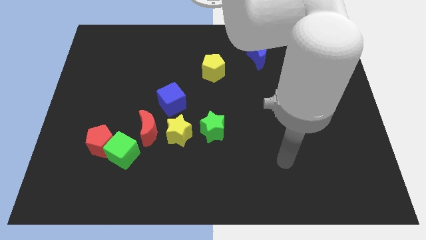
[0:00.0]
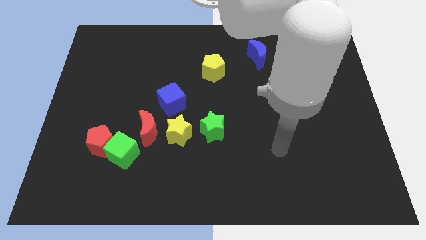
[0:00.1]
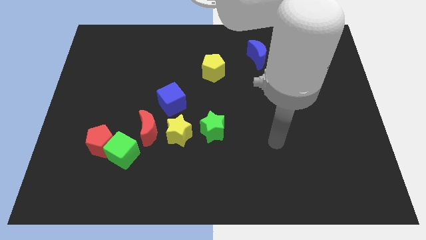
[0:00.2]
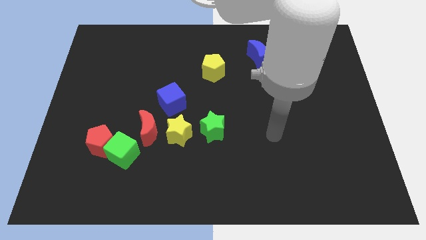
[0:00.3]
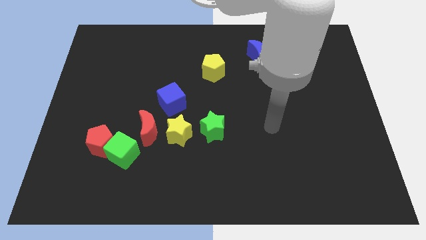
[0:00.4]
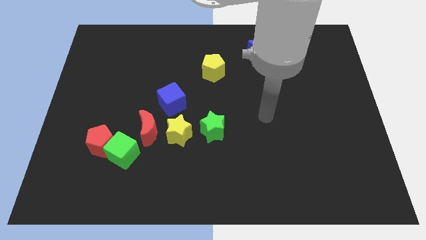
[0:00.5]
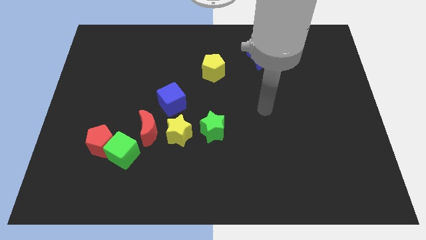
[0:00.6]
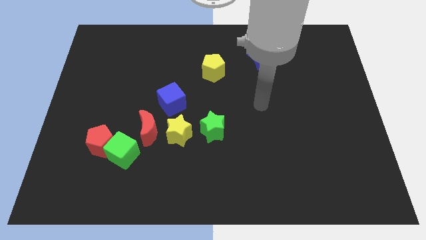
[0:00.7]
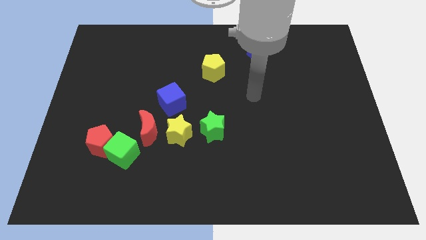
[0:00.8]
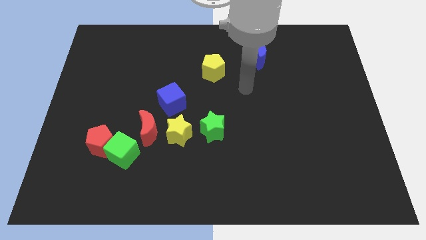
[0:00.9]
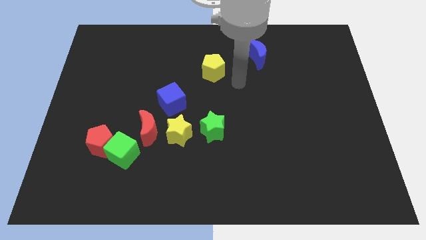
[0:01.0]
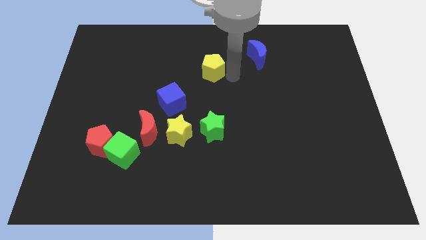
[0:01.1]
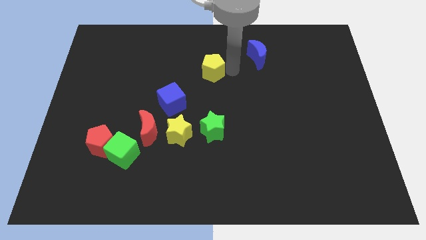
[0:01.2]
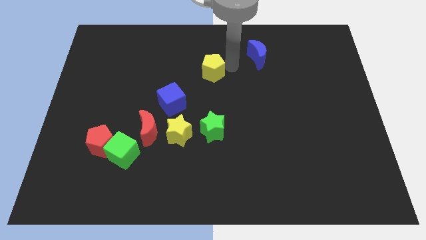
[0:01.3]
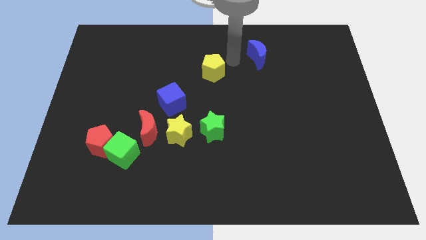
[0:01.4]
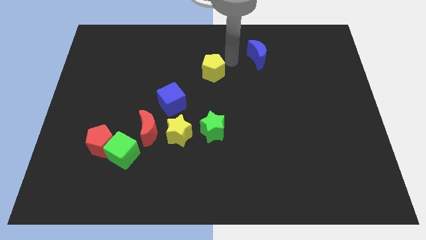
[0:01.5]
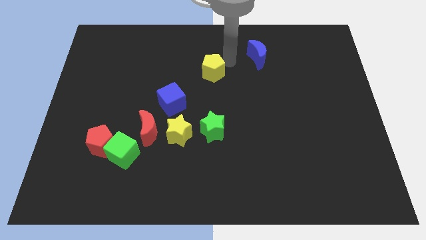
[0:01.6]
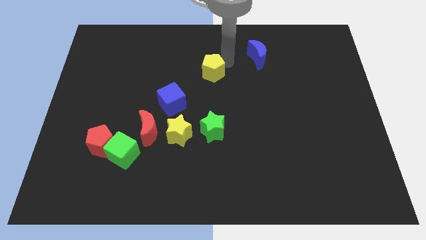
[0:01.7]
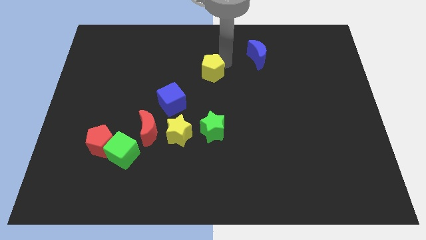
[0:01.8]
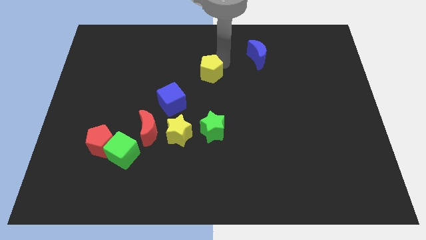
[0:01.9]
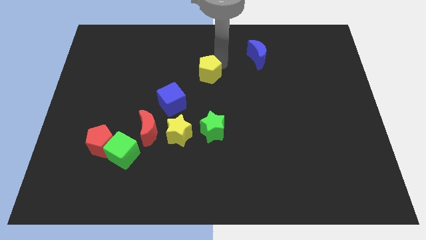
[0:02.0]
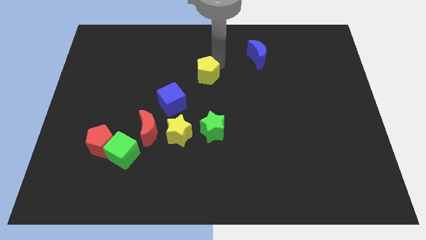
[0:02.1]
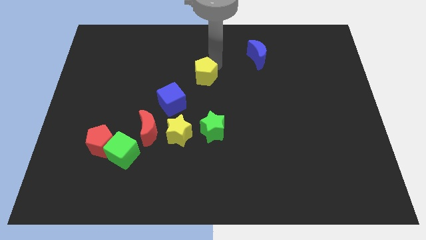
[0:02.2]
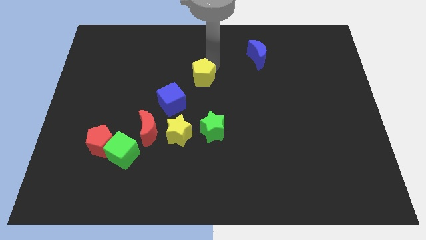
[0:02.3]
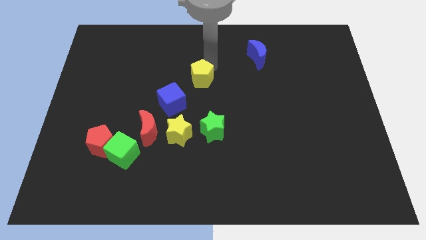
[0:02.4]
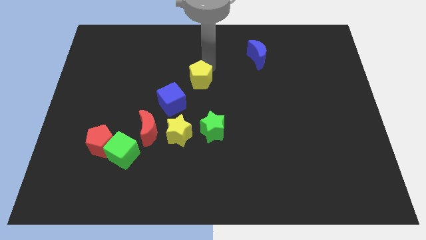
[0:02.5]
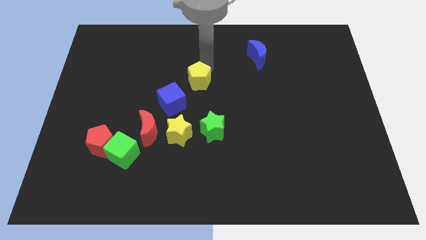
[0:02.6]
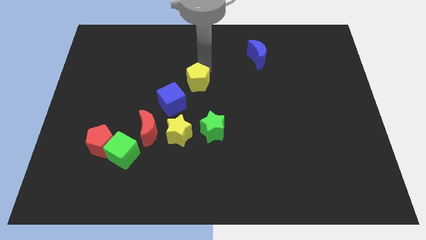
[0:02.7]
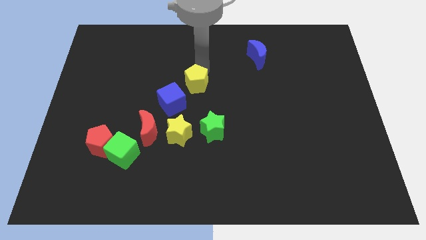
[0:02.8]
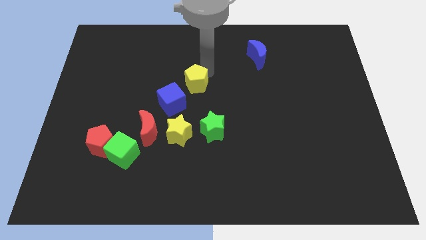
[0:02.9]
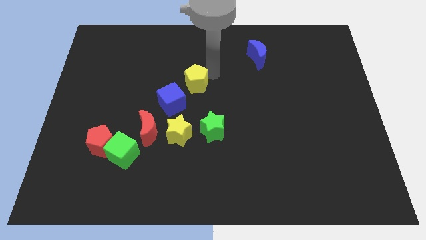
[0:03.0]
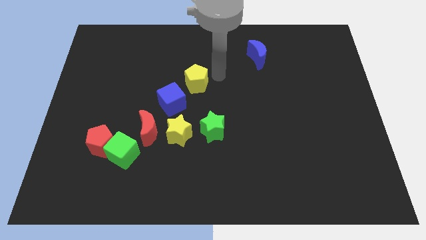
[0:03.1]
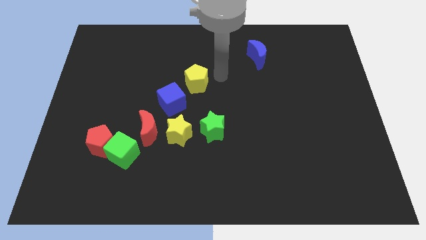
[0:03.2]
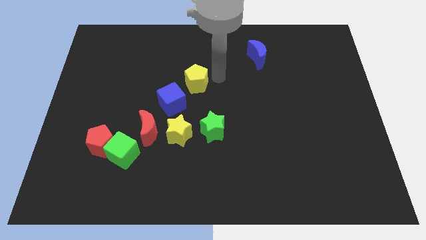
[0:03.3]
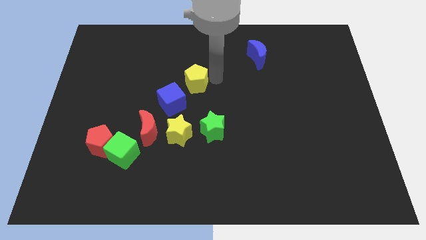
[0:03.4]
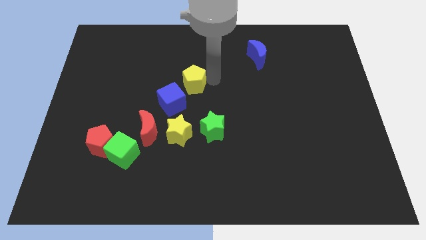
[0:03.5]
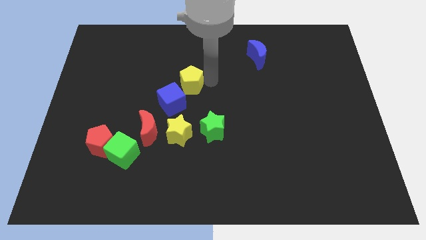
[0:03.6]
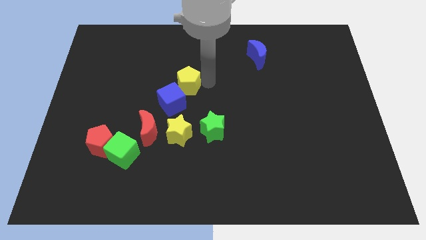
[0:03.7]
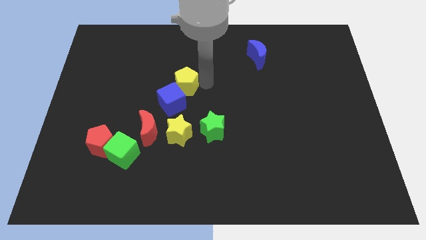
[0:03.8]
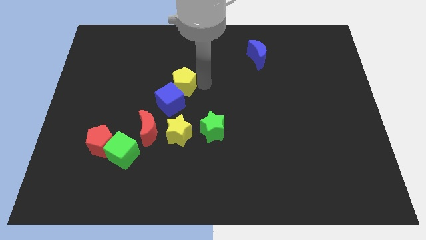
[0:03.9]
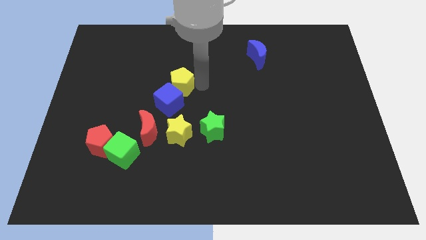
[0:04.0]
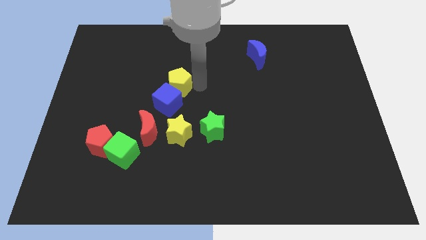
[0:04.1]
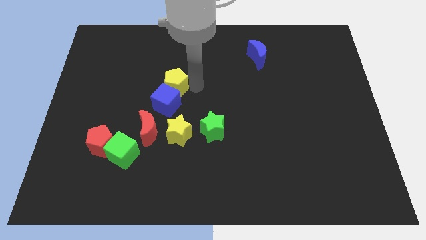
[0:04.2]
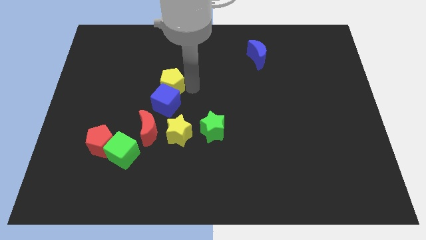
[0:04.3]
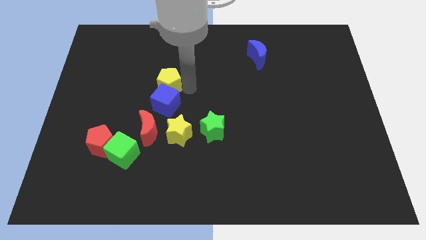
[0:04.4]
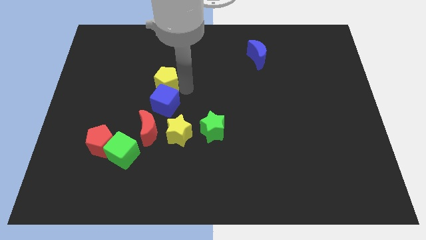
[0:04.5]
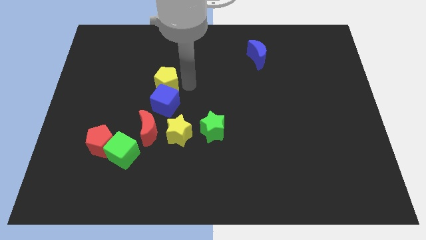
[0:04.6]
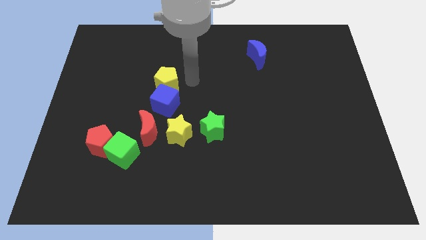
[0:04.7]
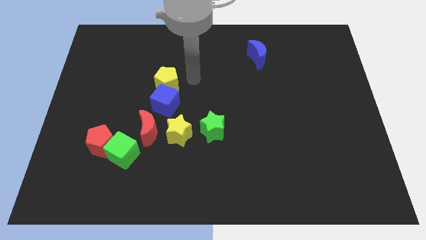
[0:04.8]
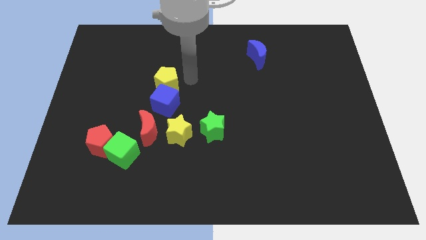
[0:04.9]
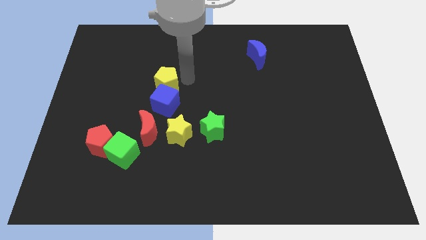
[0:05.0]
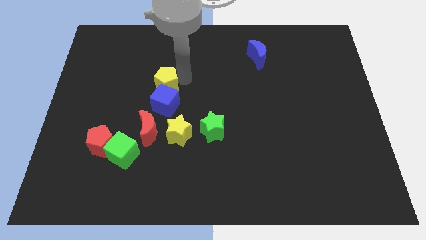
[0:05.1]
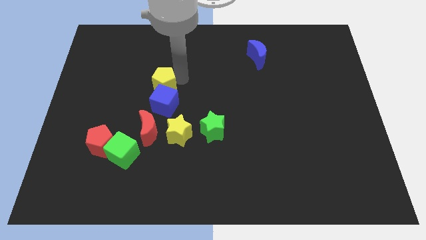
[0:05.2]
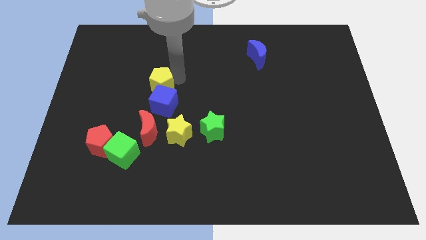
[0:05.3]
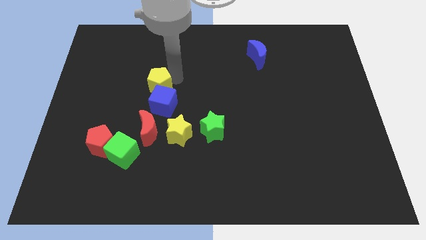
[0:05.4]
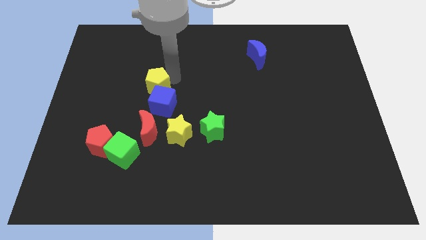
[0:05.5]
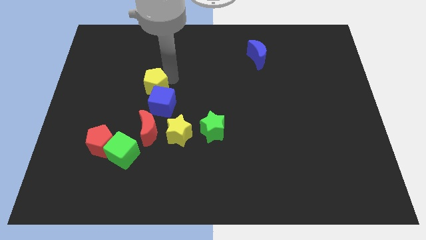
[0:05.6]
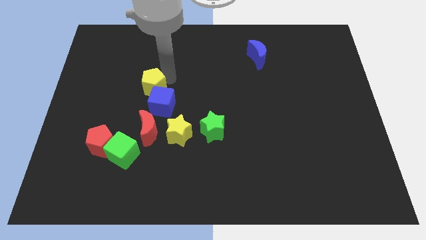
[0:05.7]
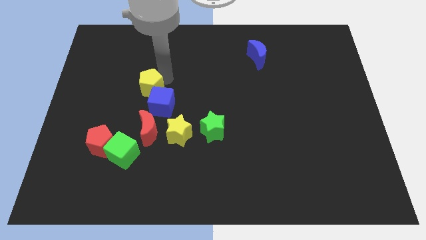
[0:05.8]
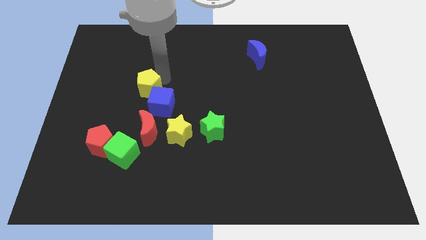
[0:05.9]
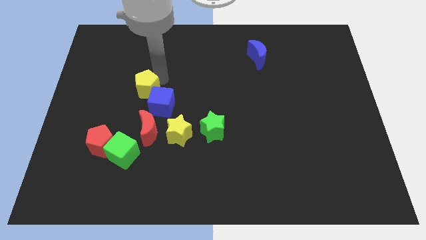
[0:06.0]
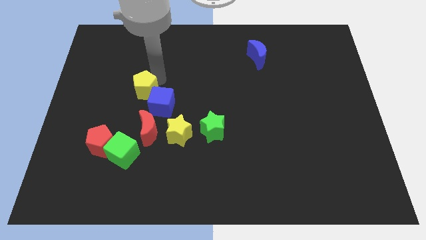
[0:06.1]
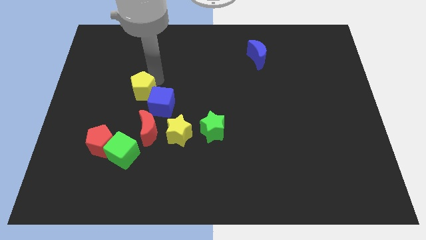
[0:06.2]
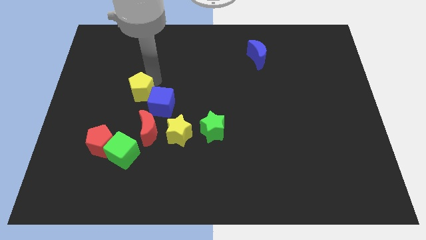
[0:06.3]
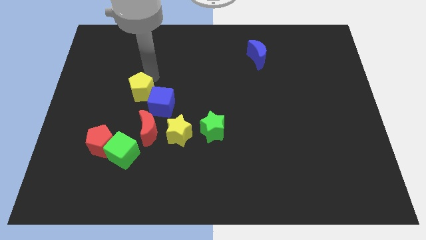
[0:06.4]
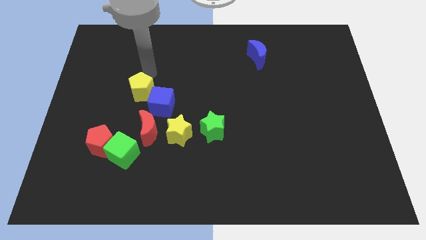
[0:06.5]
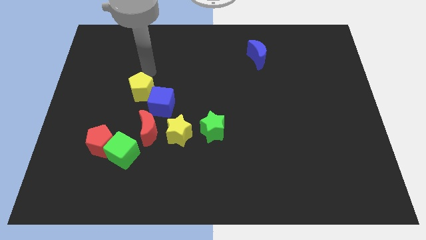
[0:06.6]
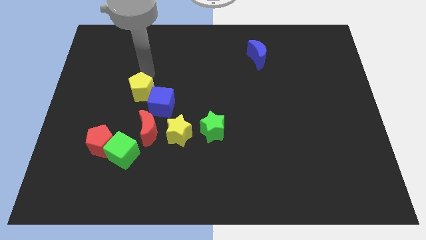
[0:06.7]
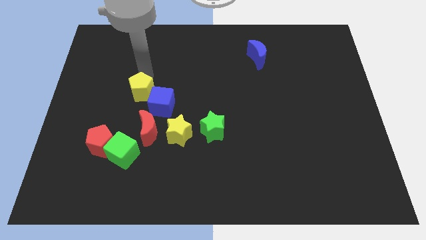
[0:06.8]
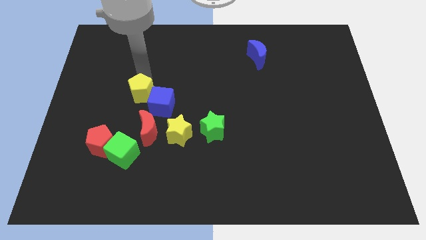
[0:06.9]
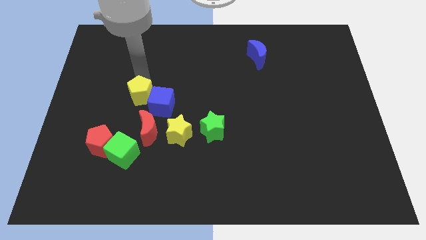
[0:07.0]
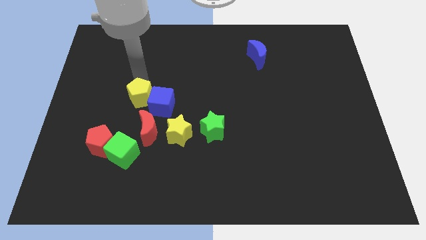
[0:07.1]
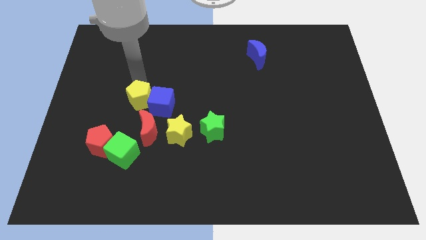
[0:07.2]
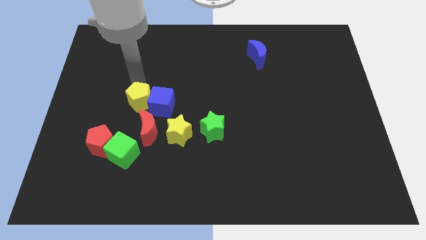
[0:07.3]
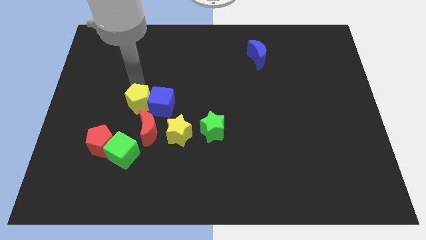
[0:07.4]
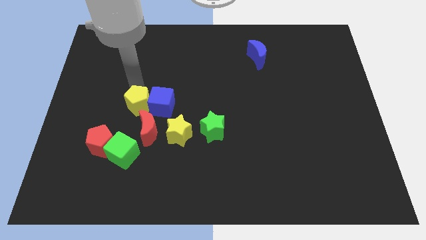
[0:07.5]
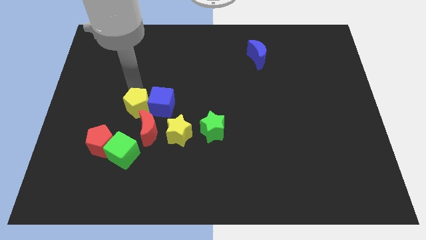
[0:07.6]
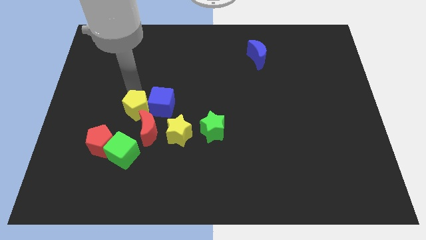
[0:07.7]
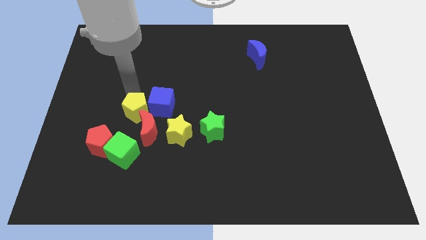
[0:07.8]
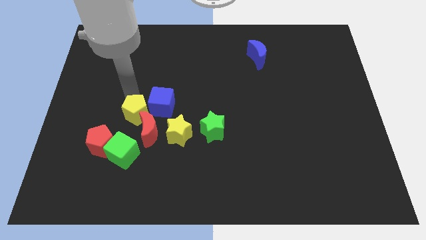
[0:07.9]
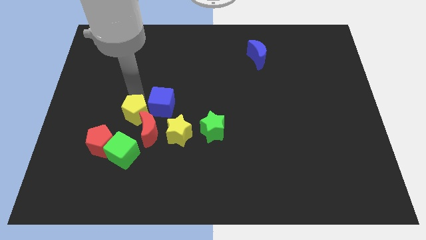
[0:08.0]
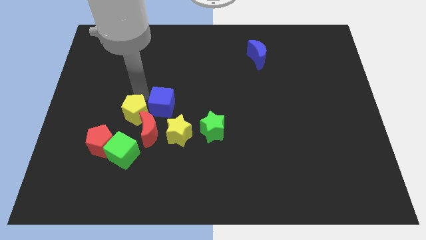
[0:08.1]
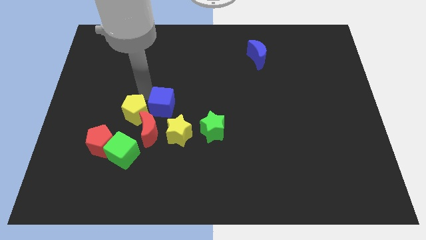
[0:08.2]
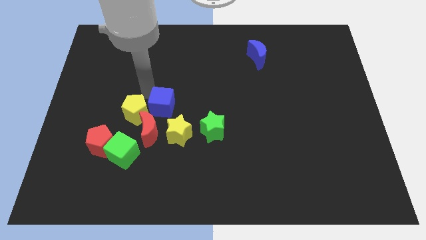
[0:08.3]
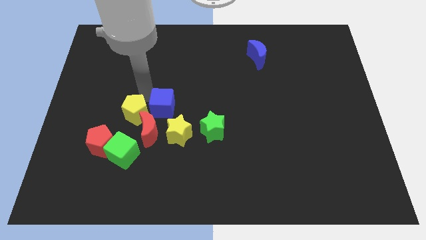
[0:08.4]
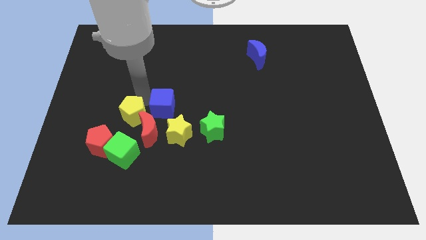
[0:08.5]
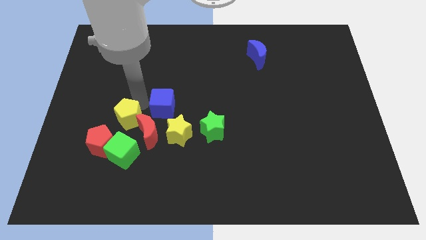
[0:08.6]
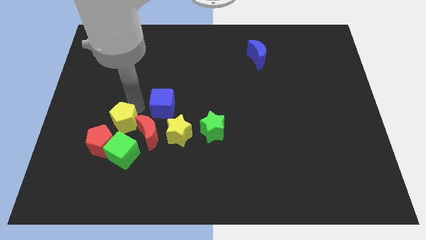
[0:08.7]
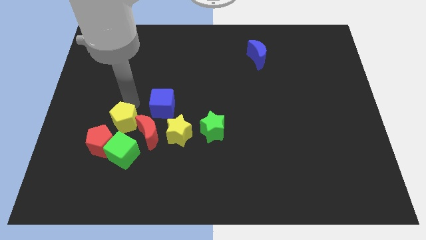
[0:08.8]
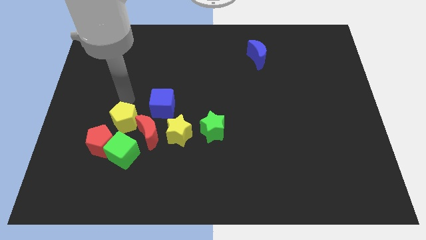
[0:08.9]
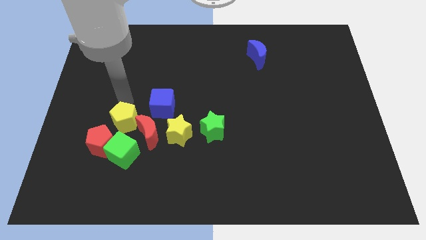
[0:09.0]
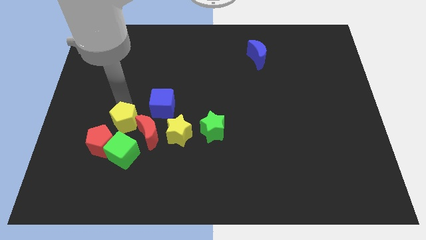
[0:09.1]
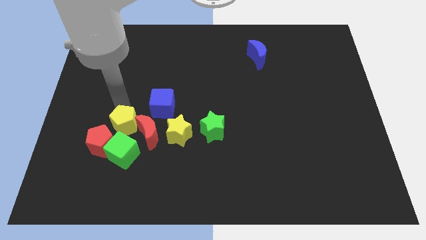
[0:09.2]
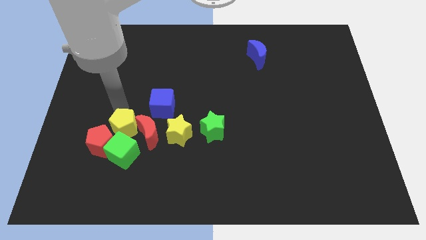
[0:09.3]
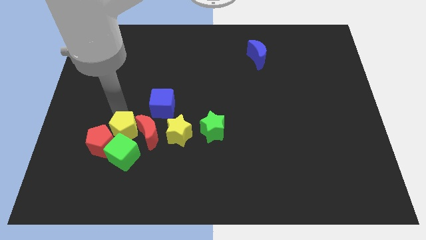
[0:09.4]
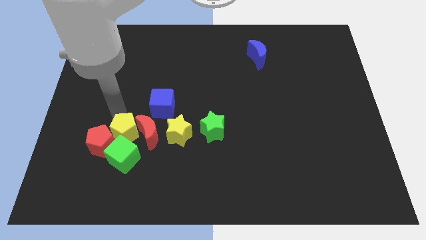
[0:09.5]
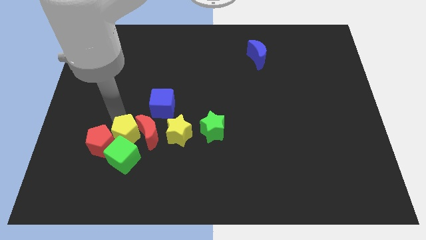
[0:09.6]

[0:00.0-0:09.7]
slide the yellow pentagon close to the green cube
